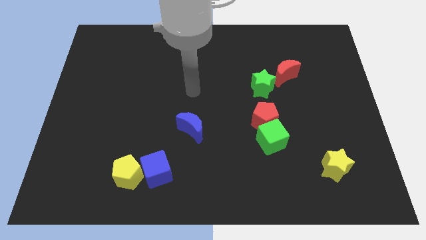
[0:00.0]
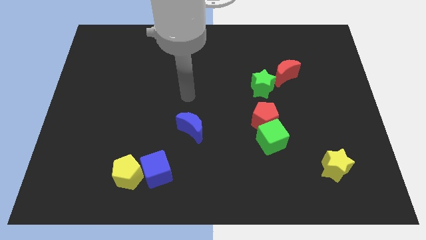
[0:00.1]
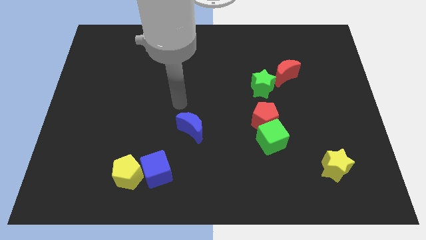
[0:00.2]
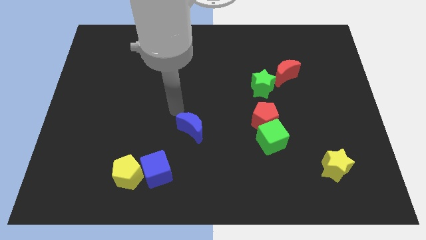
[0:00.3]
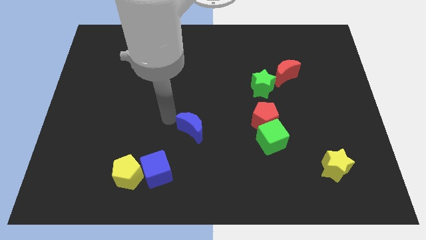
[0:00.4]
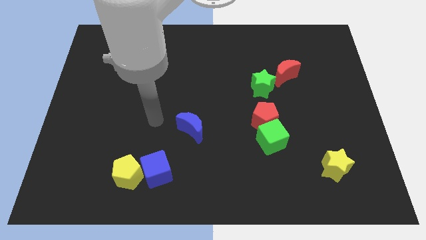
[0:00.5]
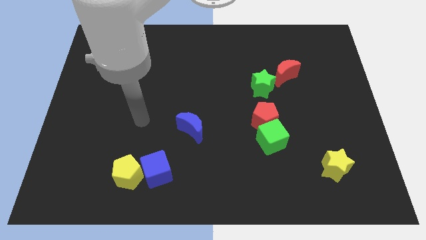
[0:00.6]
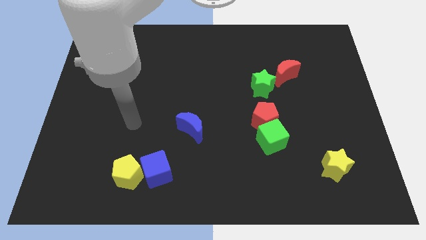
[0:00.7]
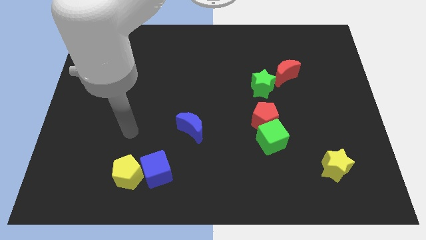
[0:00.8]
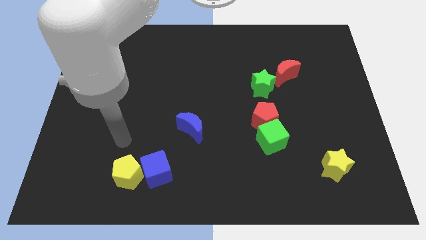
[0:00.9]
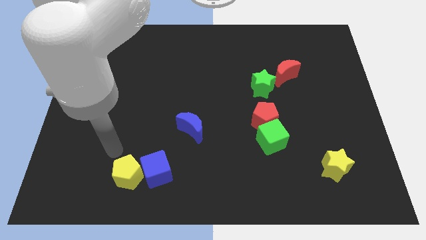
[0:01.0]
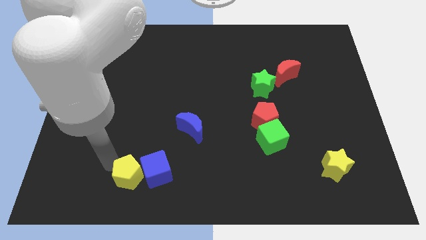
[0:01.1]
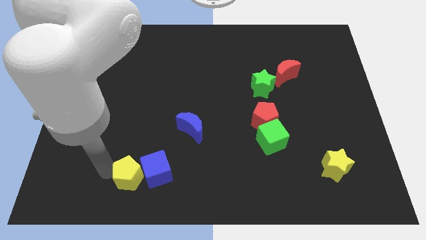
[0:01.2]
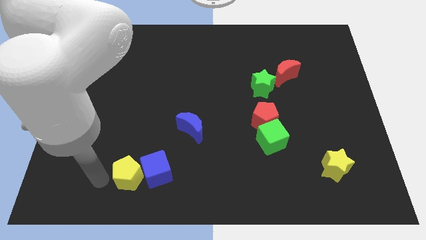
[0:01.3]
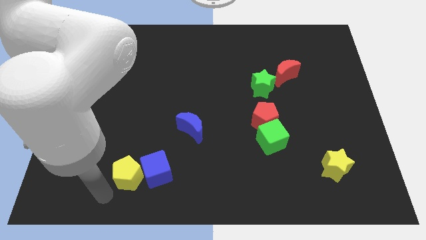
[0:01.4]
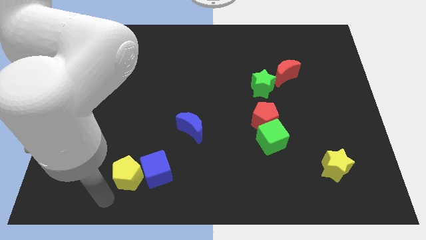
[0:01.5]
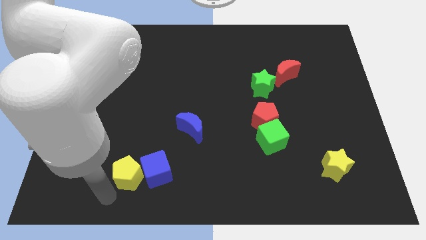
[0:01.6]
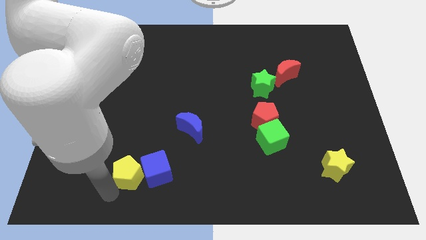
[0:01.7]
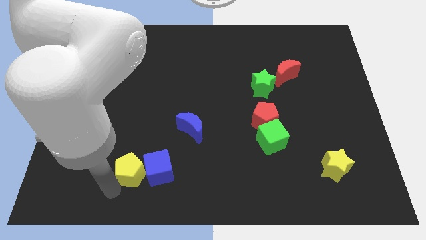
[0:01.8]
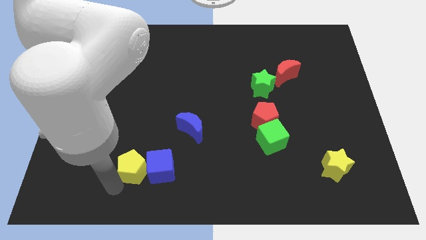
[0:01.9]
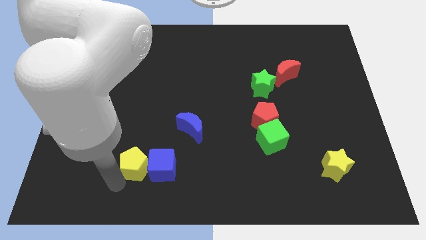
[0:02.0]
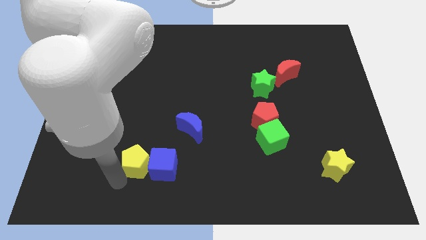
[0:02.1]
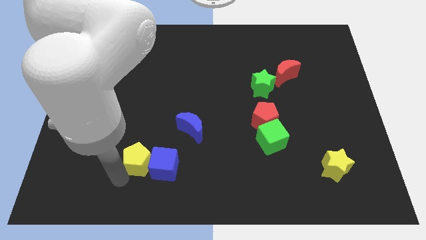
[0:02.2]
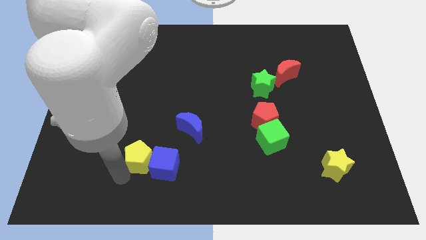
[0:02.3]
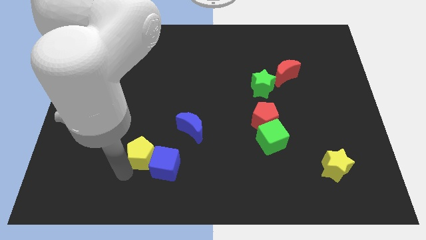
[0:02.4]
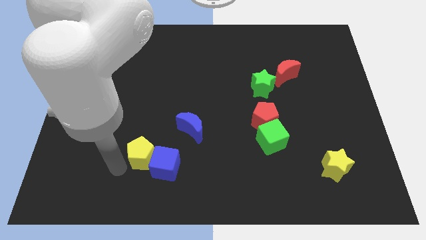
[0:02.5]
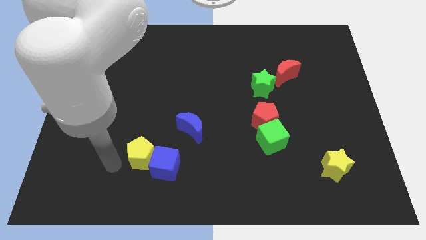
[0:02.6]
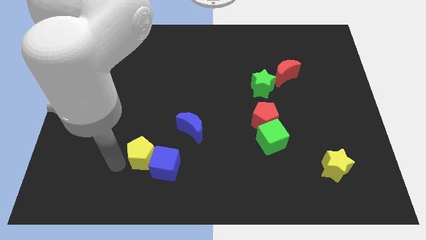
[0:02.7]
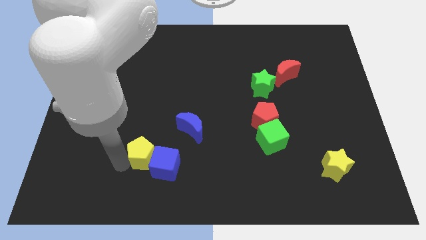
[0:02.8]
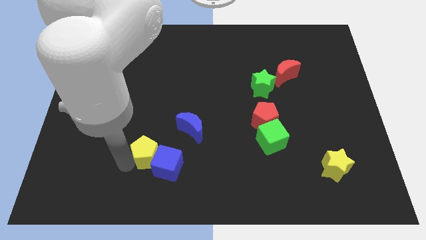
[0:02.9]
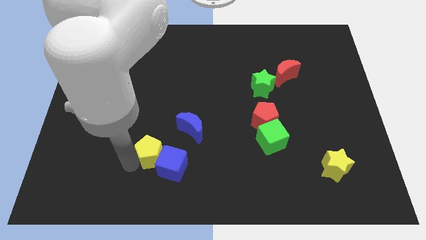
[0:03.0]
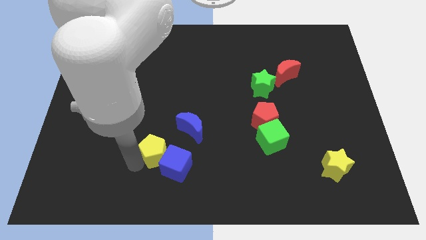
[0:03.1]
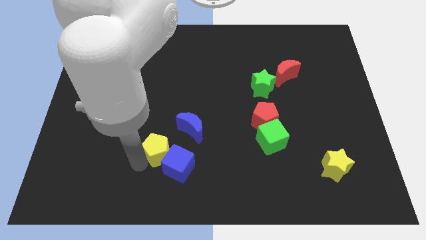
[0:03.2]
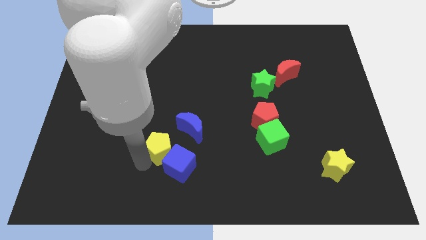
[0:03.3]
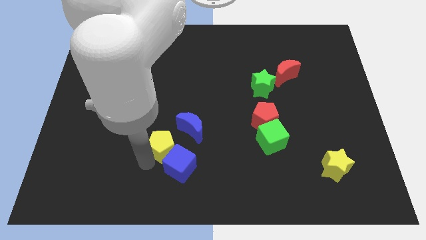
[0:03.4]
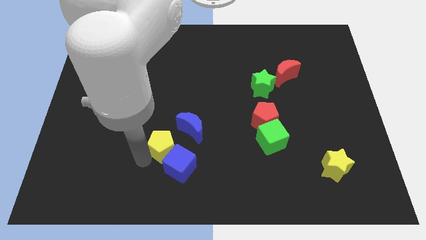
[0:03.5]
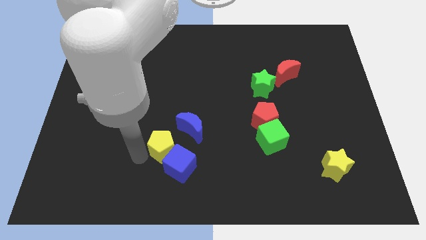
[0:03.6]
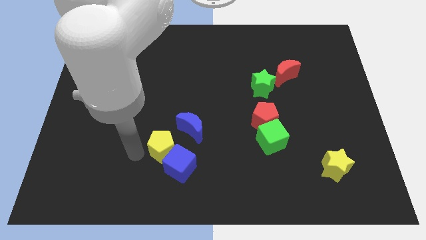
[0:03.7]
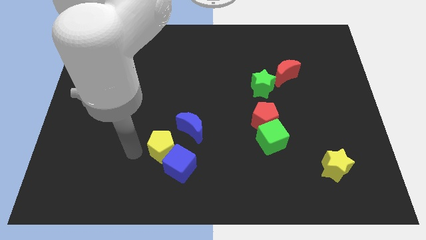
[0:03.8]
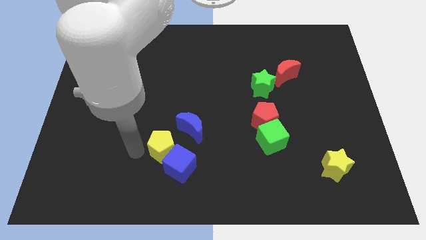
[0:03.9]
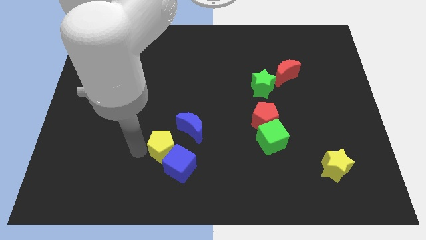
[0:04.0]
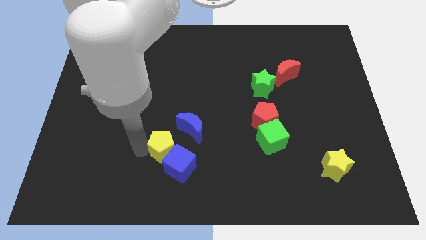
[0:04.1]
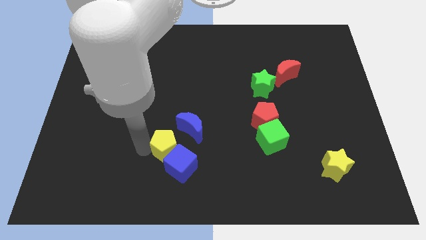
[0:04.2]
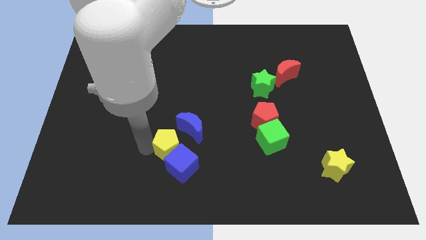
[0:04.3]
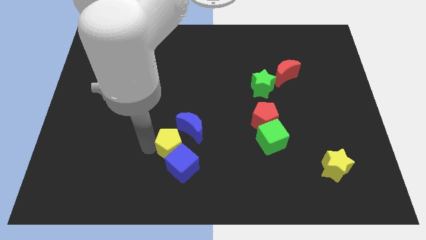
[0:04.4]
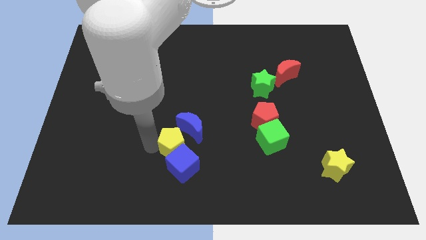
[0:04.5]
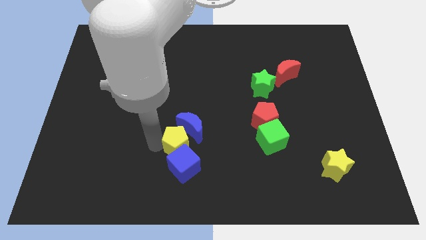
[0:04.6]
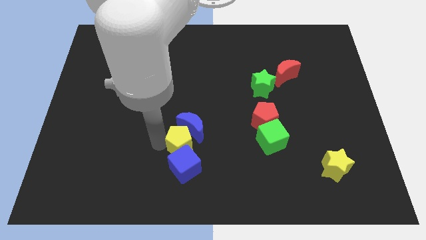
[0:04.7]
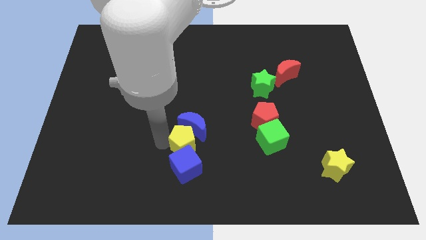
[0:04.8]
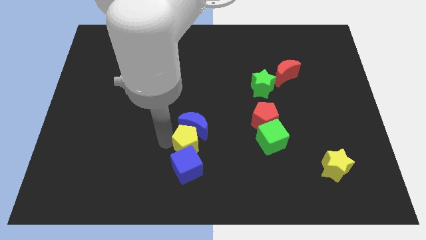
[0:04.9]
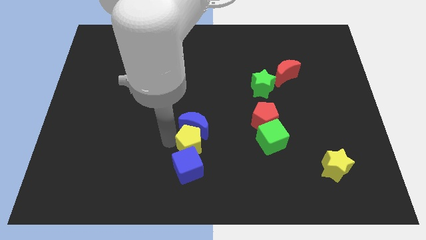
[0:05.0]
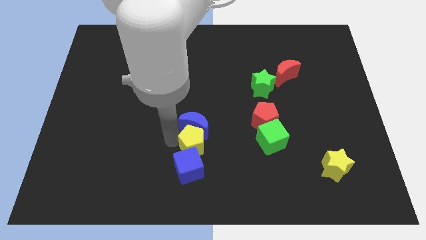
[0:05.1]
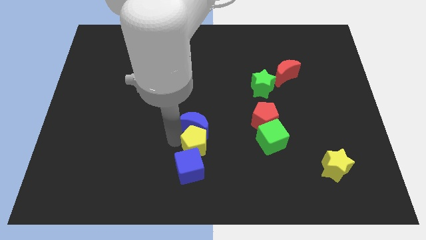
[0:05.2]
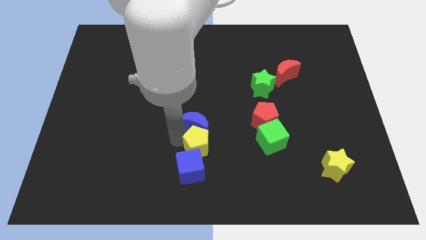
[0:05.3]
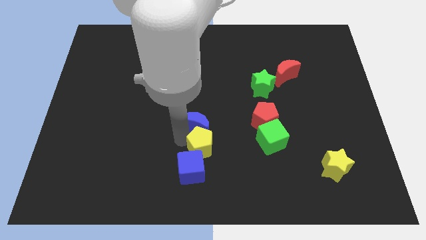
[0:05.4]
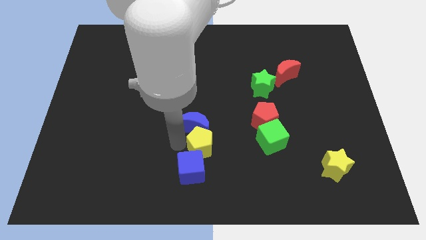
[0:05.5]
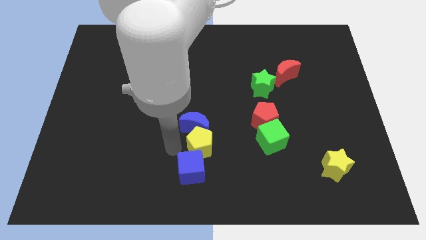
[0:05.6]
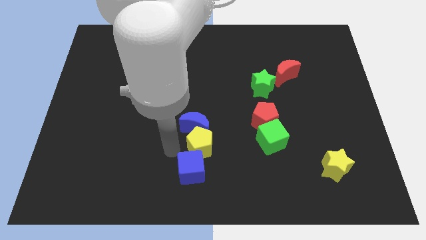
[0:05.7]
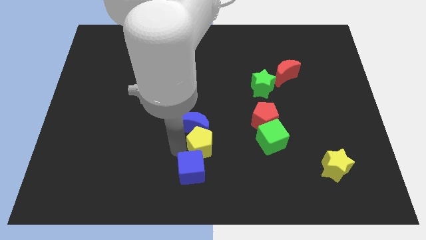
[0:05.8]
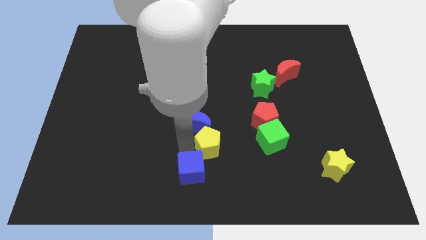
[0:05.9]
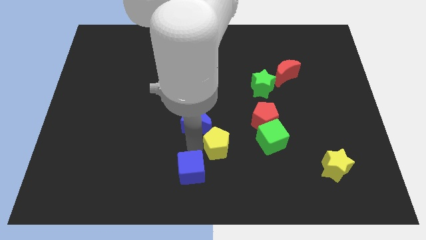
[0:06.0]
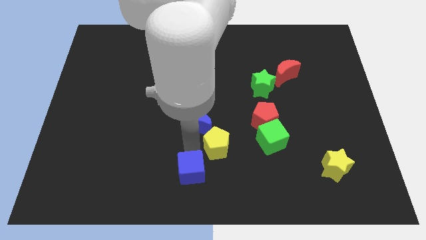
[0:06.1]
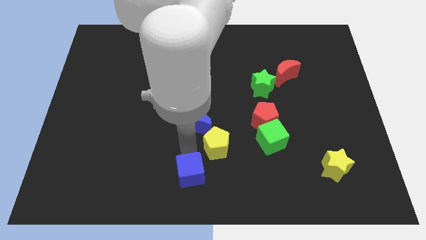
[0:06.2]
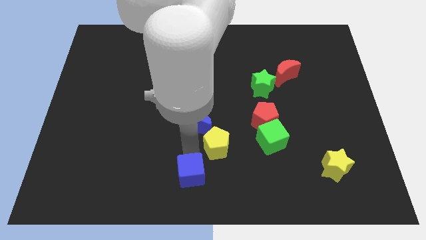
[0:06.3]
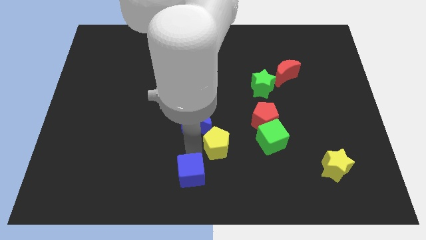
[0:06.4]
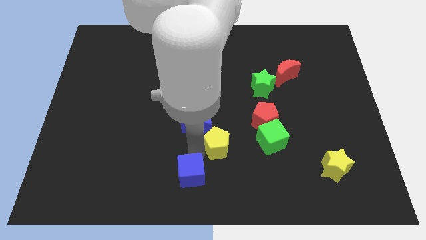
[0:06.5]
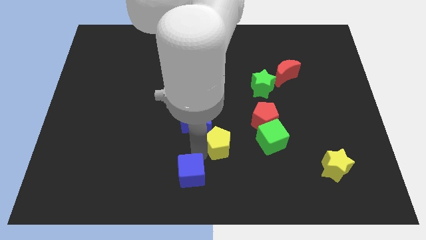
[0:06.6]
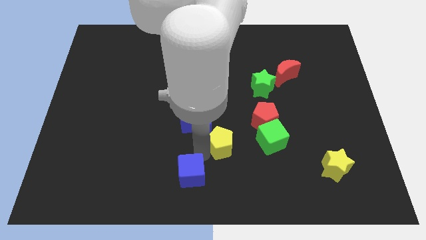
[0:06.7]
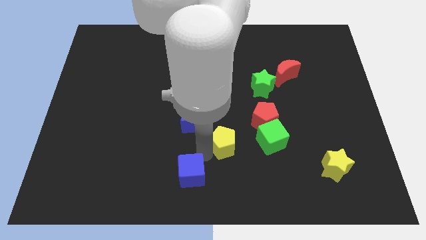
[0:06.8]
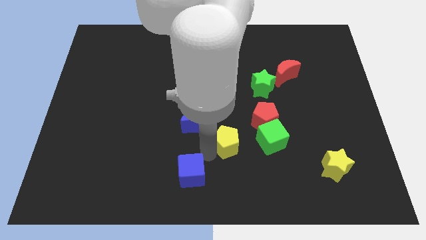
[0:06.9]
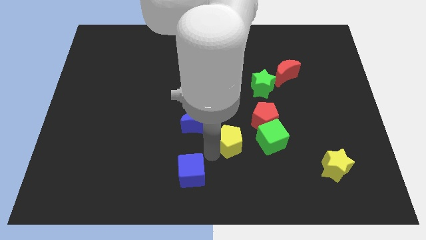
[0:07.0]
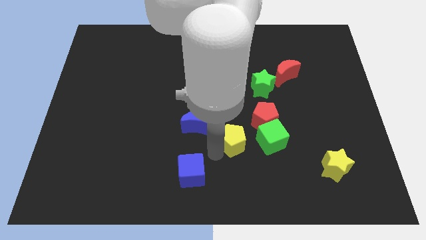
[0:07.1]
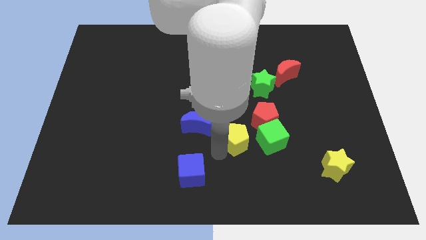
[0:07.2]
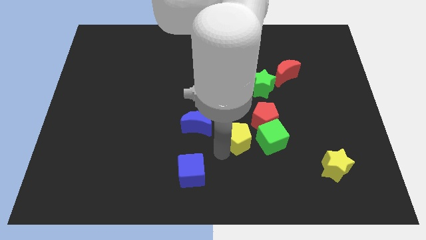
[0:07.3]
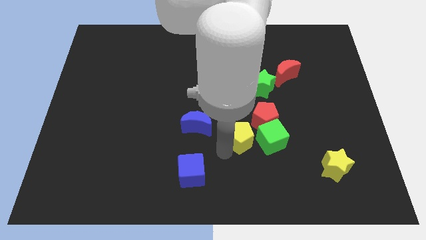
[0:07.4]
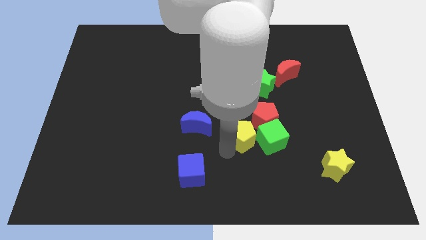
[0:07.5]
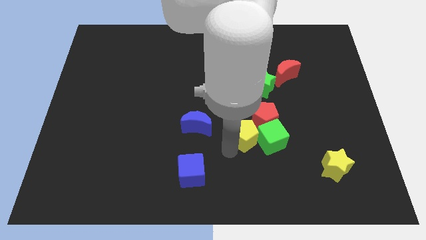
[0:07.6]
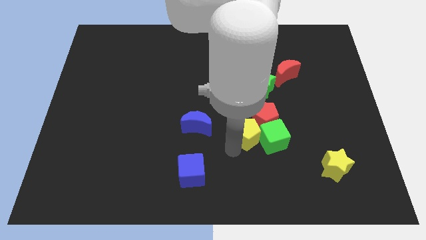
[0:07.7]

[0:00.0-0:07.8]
move the yellow pentagon close to the red pentagon
